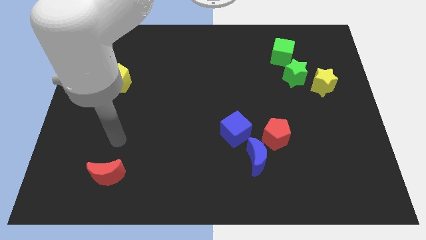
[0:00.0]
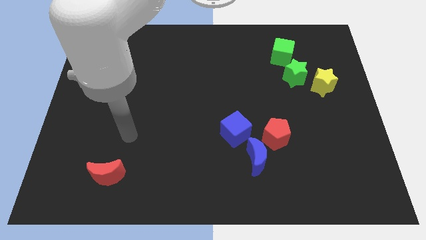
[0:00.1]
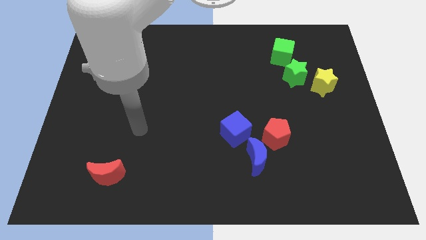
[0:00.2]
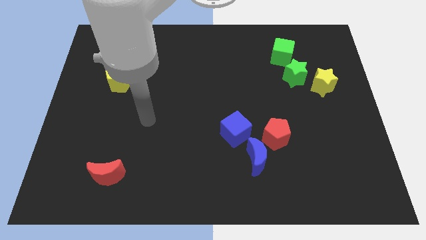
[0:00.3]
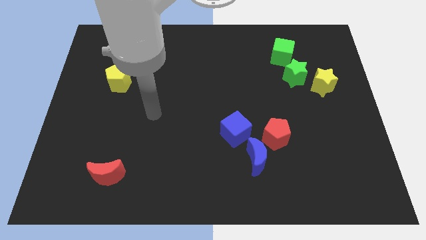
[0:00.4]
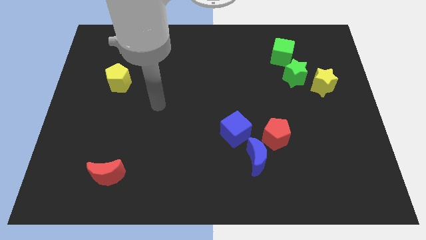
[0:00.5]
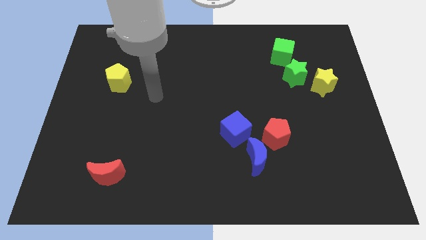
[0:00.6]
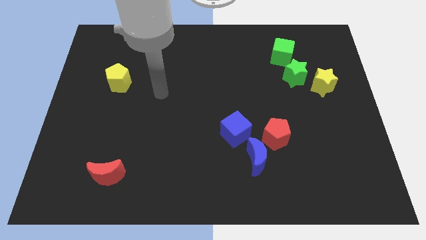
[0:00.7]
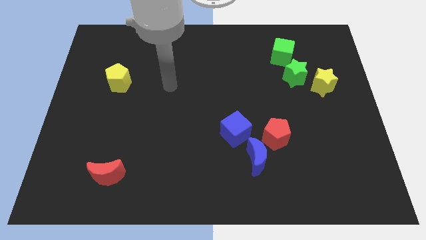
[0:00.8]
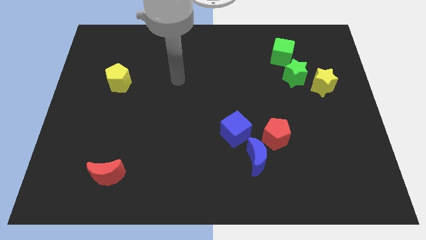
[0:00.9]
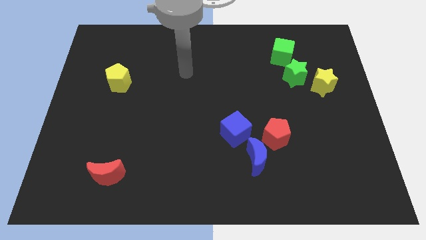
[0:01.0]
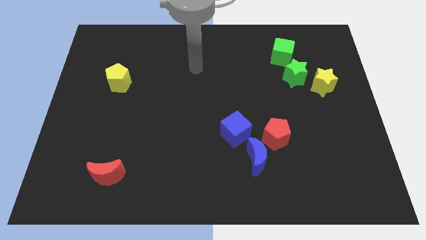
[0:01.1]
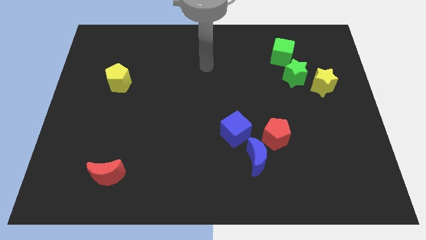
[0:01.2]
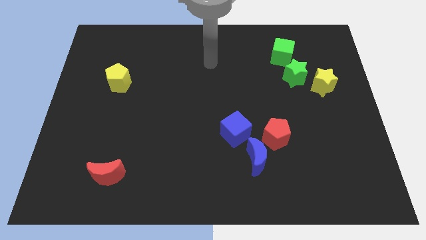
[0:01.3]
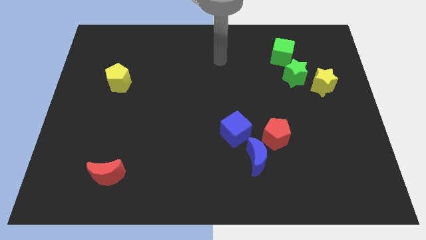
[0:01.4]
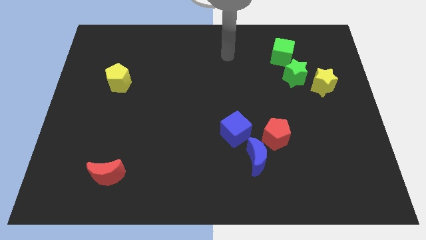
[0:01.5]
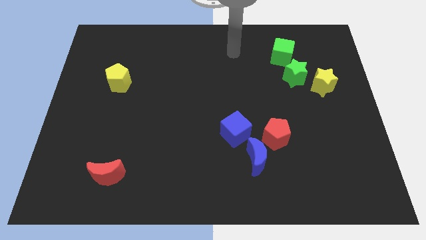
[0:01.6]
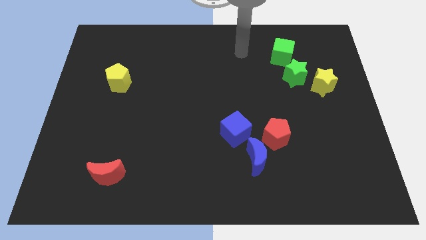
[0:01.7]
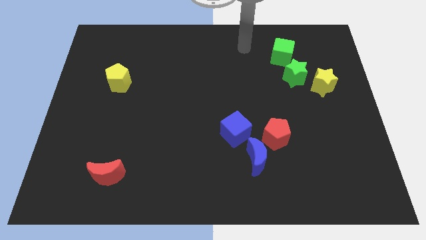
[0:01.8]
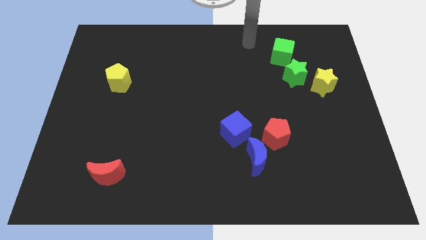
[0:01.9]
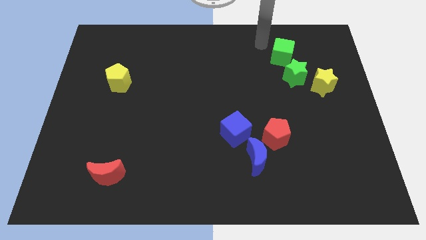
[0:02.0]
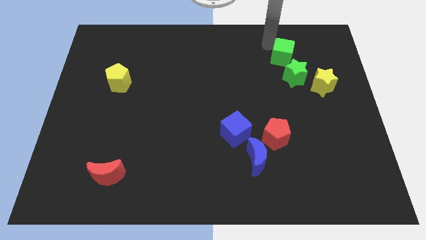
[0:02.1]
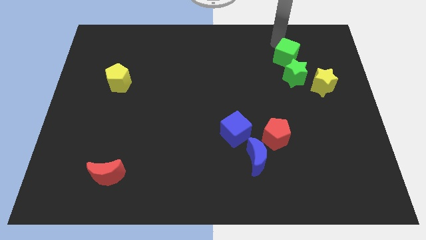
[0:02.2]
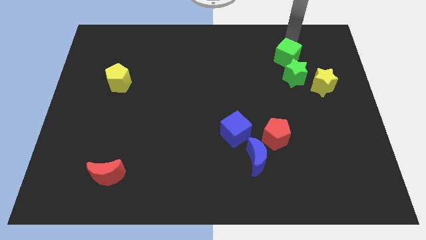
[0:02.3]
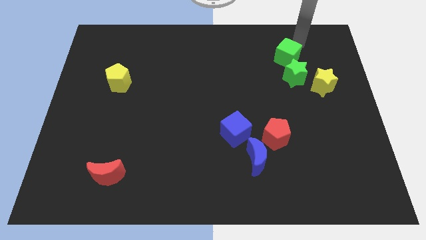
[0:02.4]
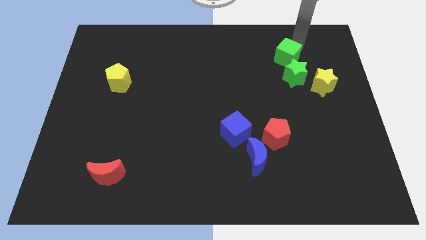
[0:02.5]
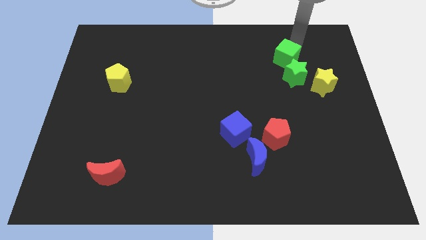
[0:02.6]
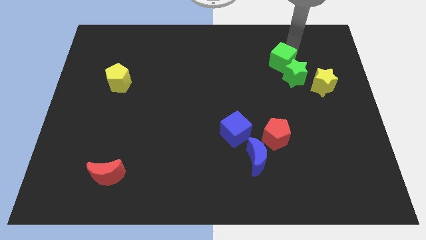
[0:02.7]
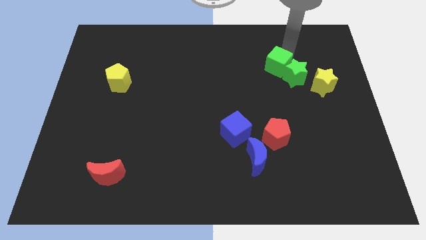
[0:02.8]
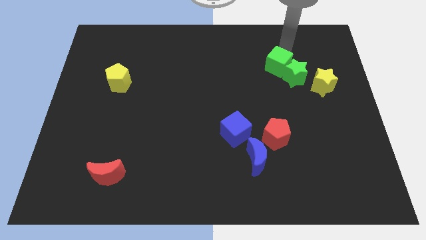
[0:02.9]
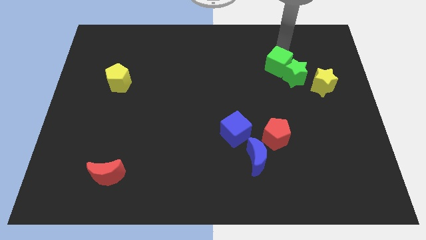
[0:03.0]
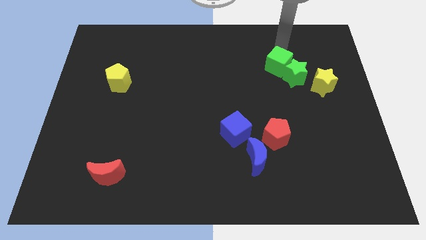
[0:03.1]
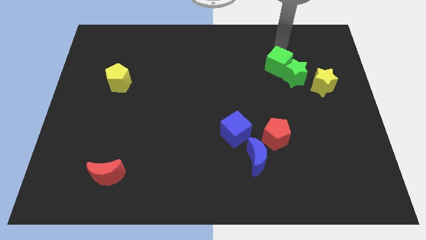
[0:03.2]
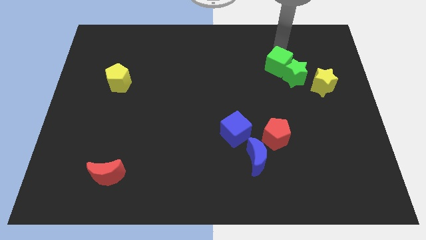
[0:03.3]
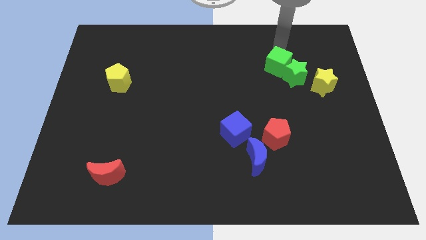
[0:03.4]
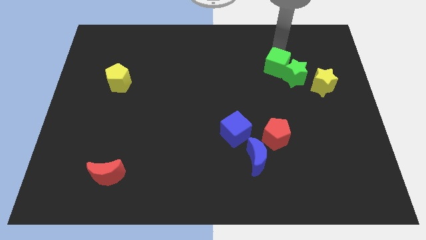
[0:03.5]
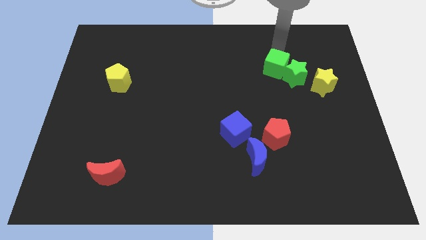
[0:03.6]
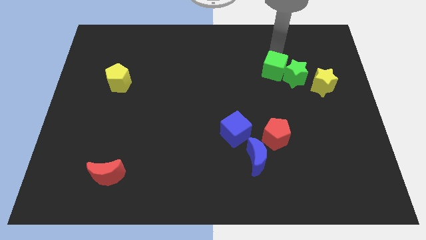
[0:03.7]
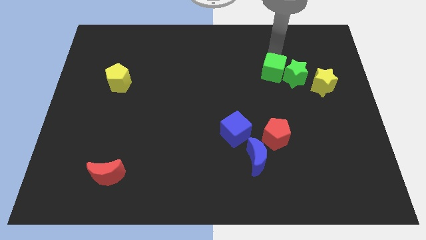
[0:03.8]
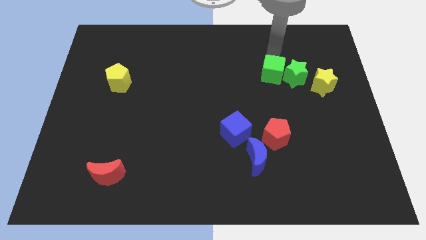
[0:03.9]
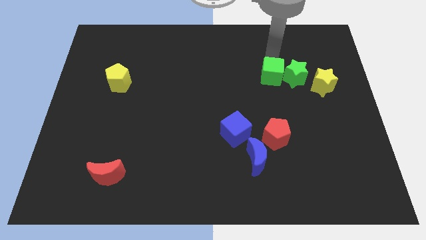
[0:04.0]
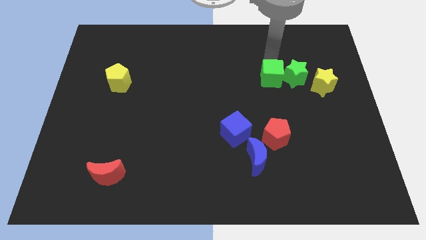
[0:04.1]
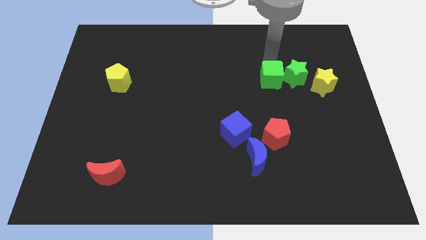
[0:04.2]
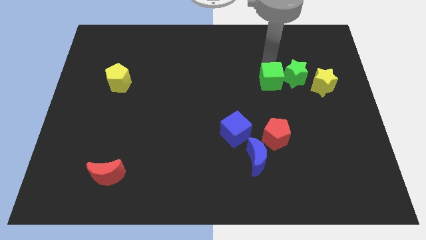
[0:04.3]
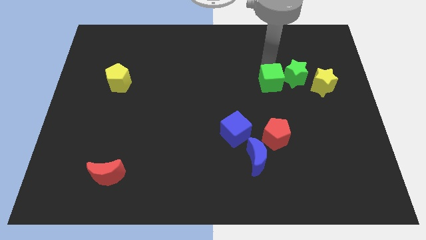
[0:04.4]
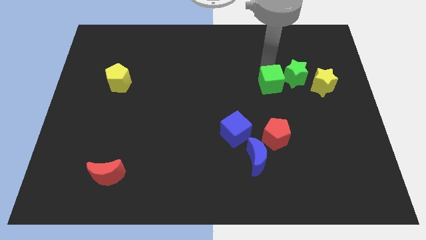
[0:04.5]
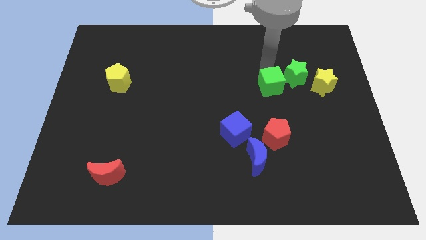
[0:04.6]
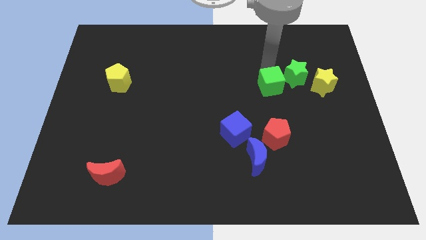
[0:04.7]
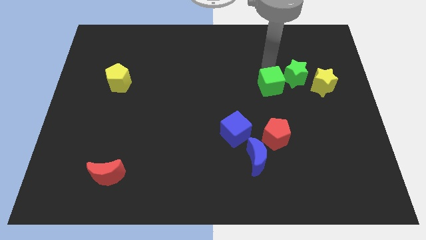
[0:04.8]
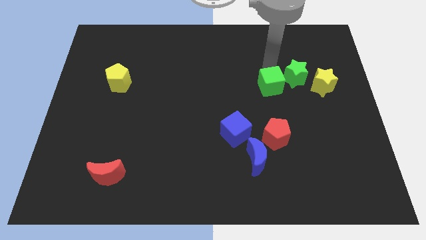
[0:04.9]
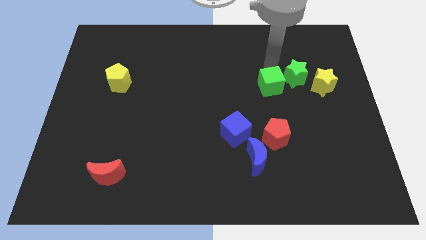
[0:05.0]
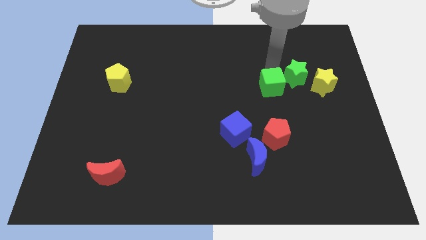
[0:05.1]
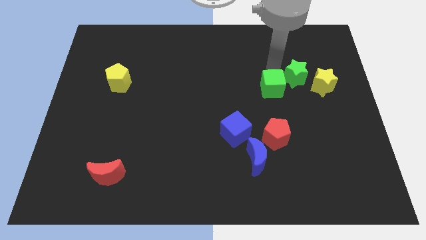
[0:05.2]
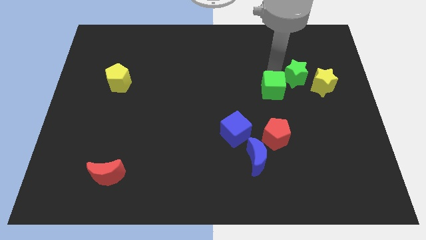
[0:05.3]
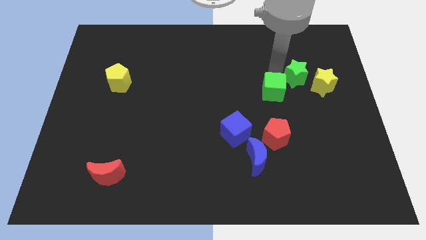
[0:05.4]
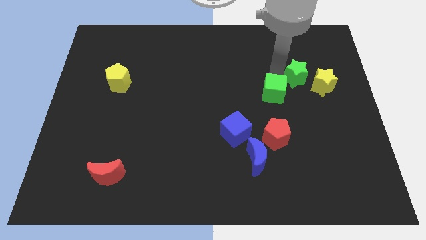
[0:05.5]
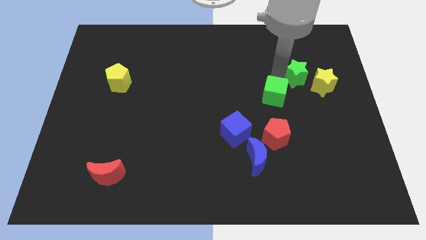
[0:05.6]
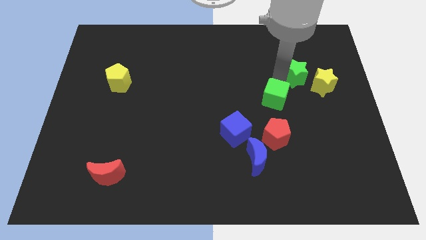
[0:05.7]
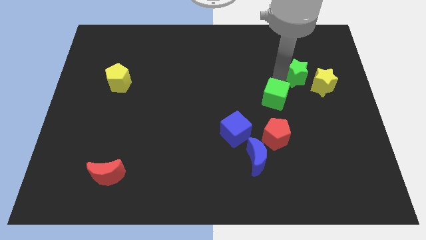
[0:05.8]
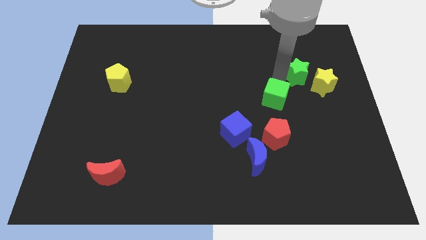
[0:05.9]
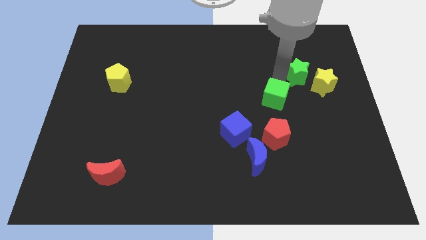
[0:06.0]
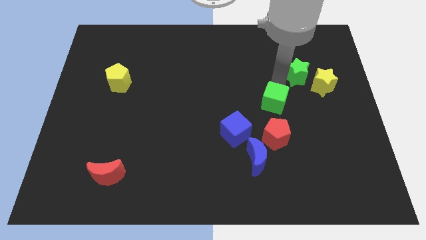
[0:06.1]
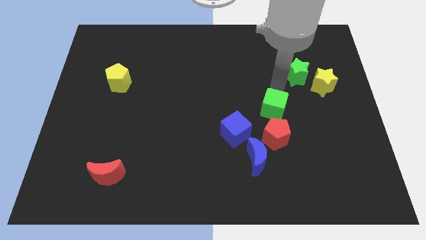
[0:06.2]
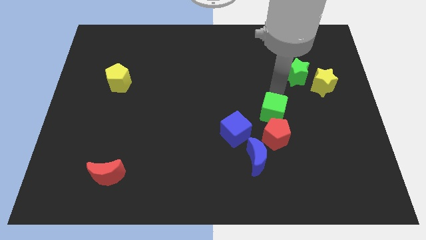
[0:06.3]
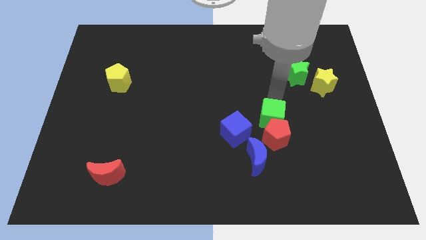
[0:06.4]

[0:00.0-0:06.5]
slide the green cube to the red pentagon

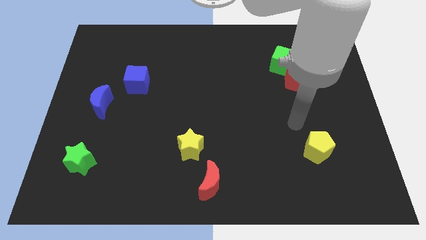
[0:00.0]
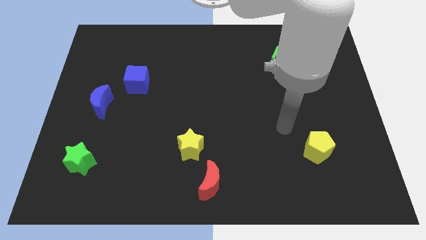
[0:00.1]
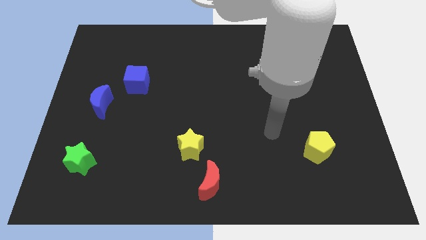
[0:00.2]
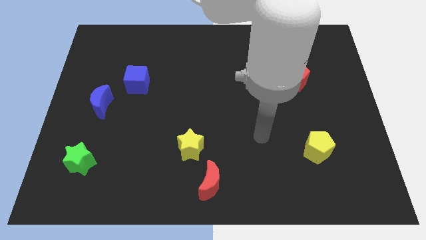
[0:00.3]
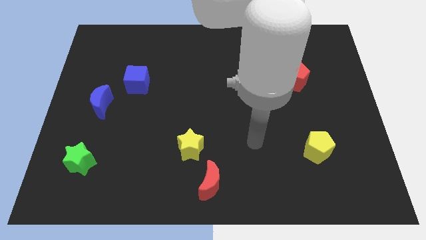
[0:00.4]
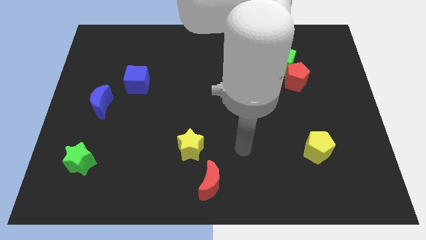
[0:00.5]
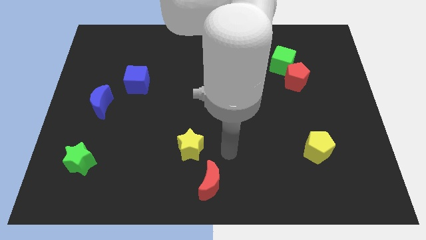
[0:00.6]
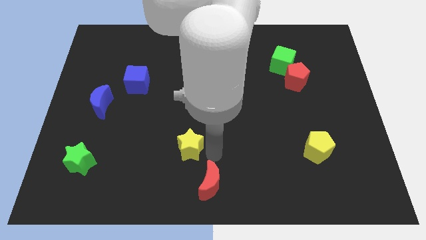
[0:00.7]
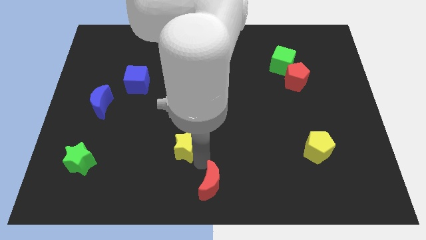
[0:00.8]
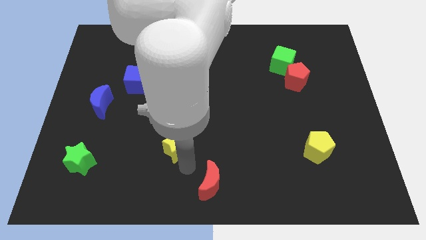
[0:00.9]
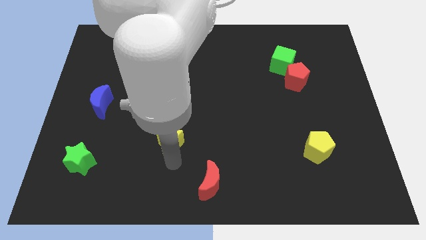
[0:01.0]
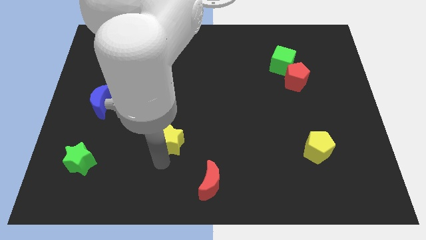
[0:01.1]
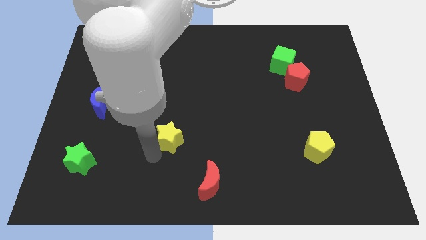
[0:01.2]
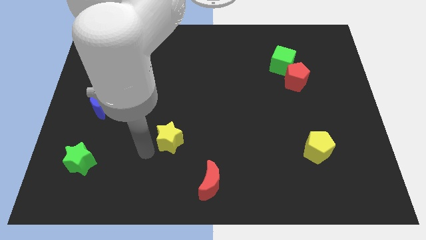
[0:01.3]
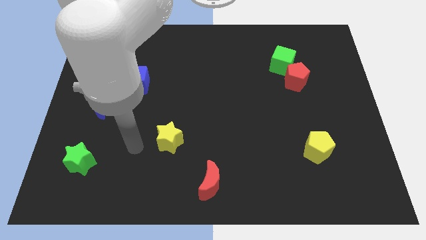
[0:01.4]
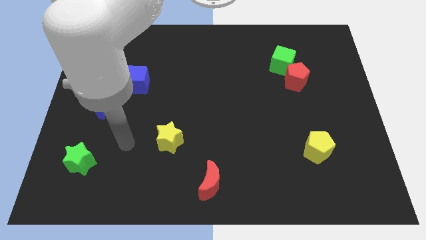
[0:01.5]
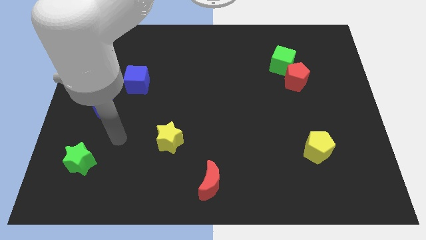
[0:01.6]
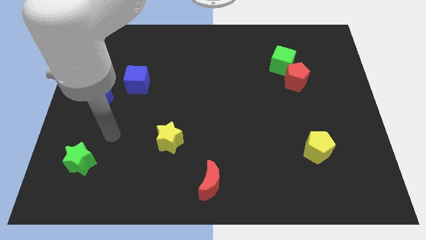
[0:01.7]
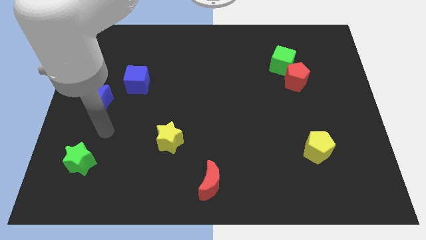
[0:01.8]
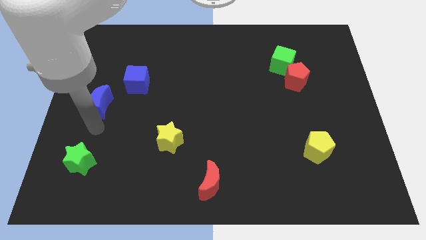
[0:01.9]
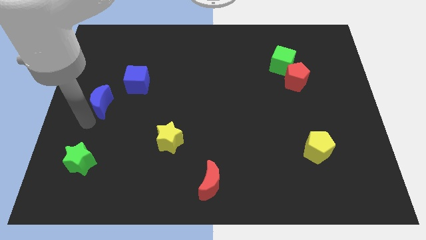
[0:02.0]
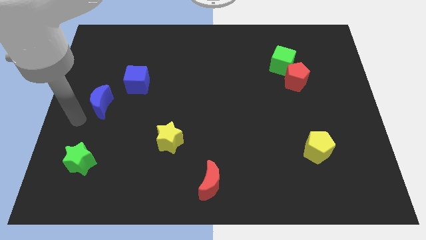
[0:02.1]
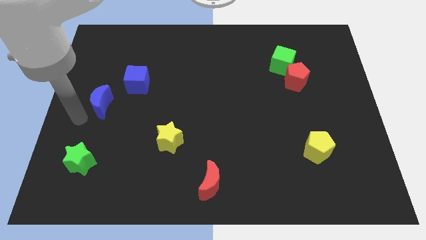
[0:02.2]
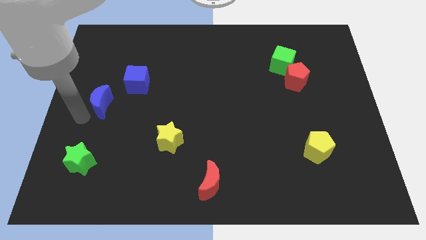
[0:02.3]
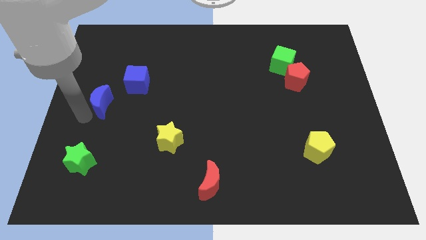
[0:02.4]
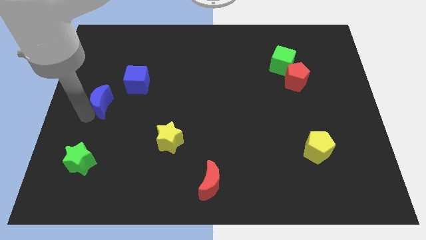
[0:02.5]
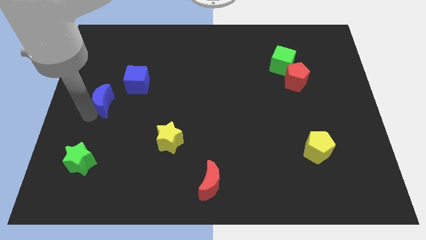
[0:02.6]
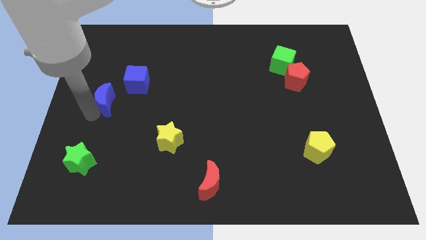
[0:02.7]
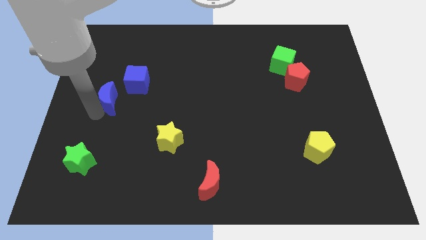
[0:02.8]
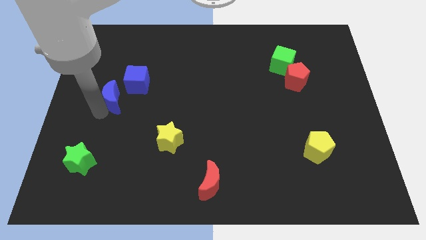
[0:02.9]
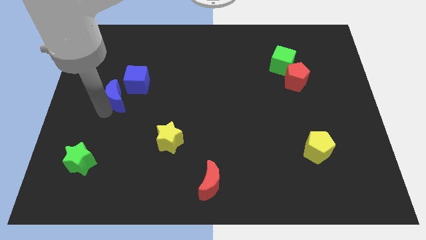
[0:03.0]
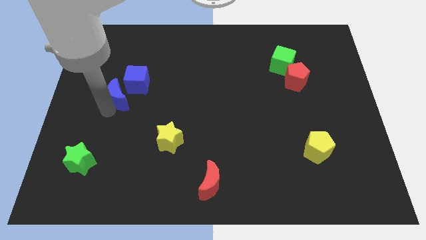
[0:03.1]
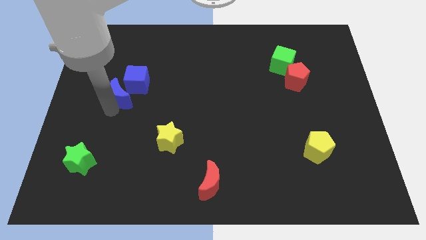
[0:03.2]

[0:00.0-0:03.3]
put the blue moon next to the blue cube
